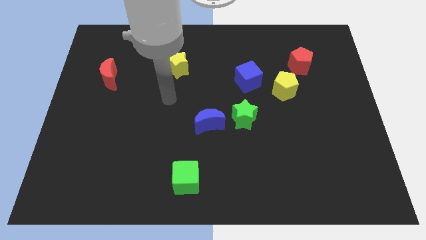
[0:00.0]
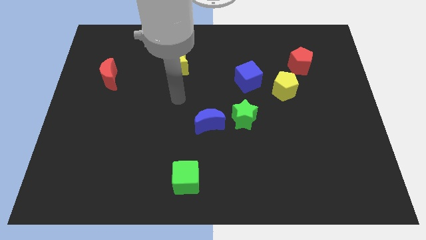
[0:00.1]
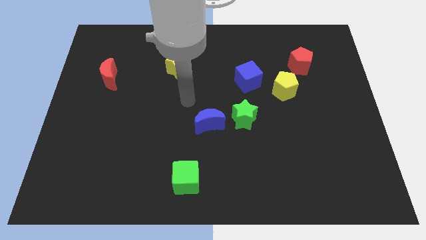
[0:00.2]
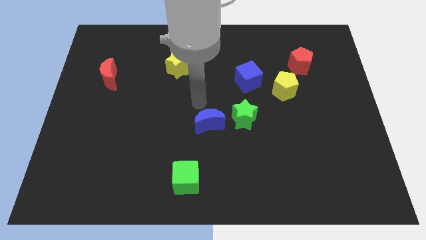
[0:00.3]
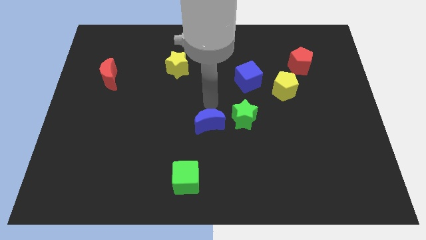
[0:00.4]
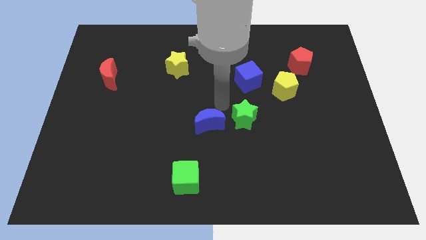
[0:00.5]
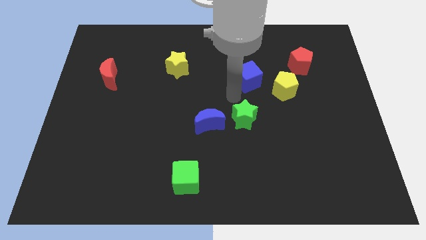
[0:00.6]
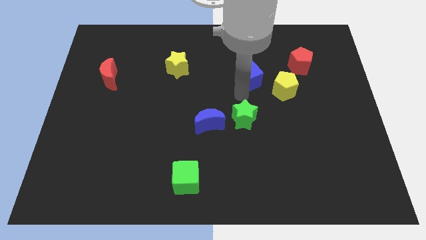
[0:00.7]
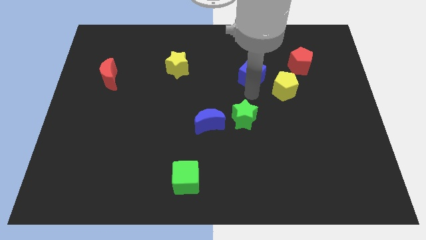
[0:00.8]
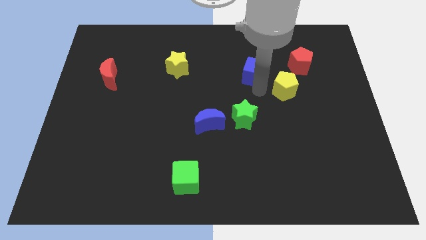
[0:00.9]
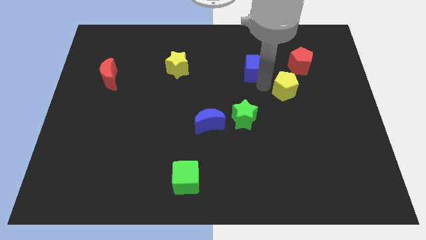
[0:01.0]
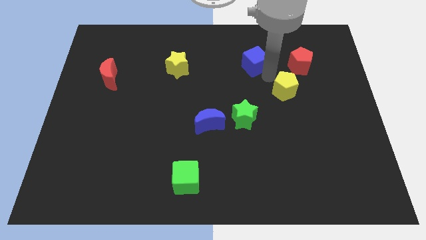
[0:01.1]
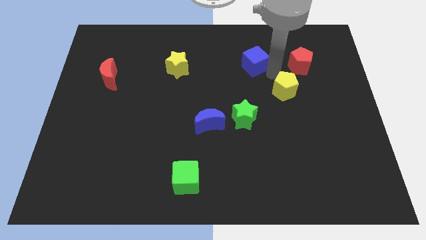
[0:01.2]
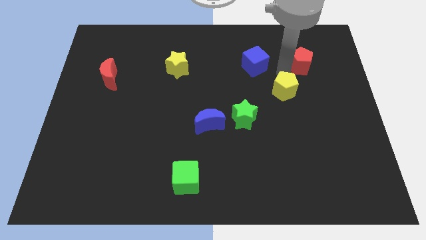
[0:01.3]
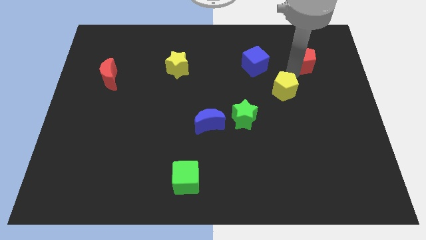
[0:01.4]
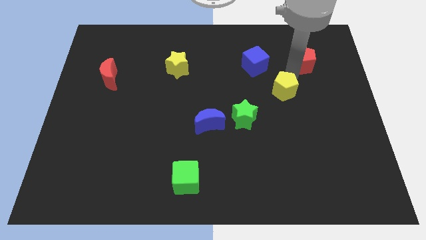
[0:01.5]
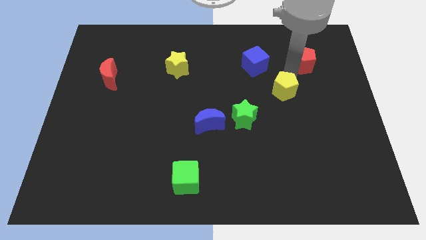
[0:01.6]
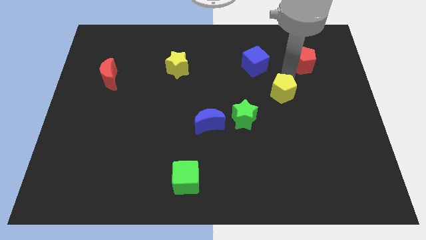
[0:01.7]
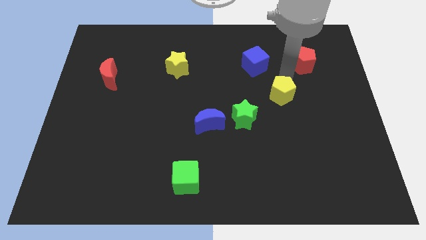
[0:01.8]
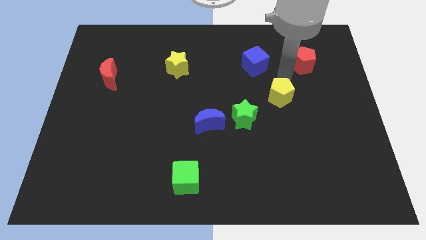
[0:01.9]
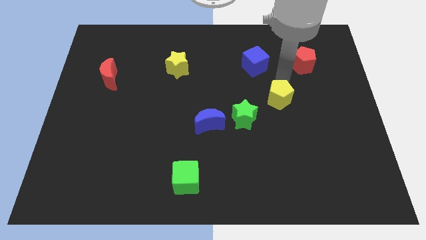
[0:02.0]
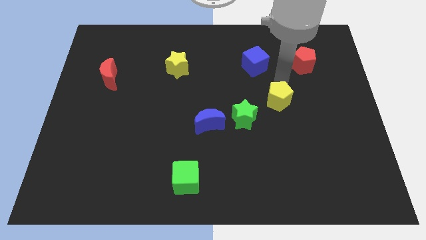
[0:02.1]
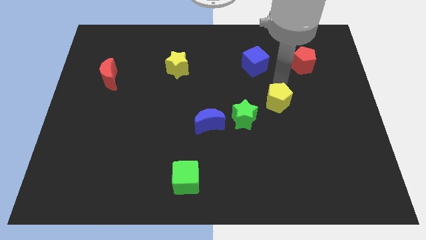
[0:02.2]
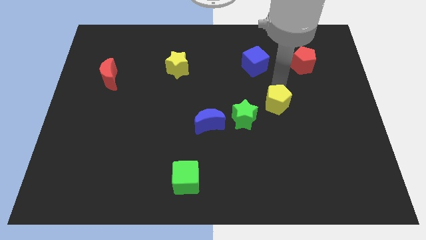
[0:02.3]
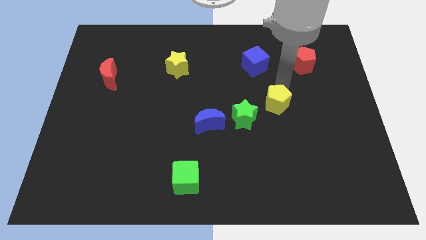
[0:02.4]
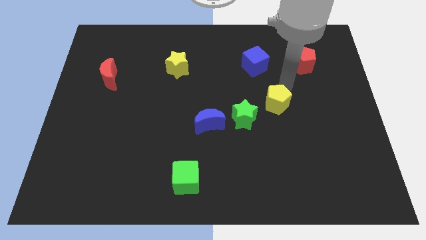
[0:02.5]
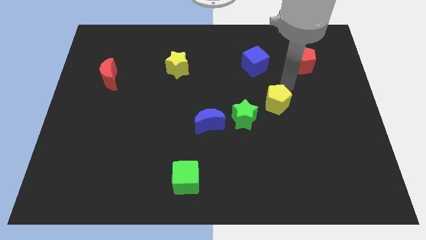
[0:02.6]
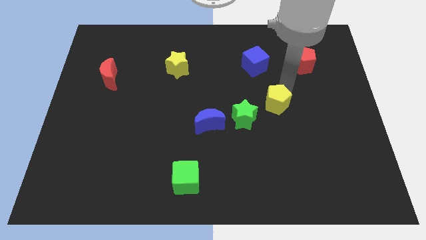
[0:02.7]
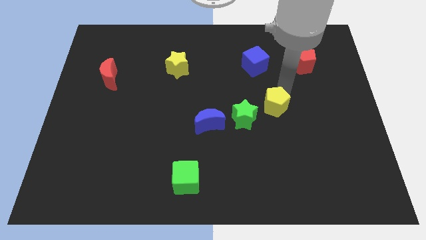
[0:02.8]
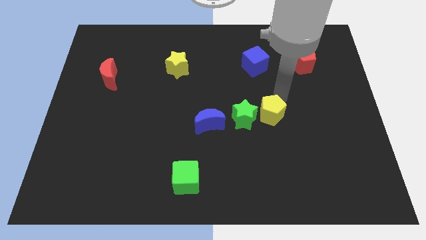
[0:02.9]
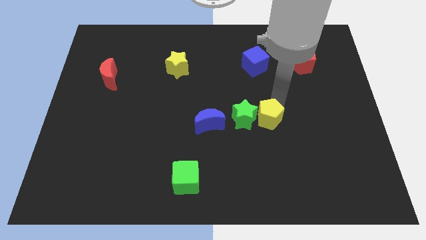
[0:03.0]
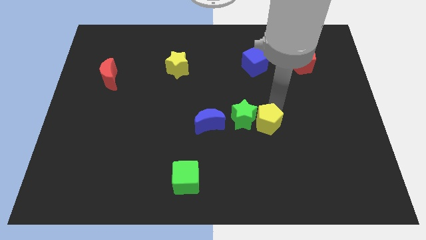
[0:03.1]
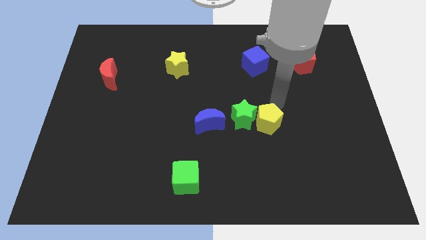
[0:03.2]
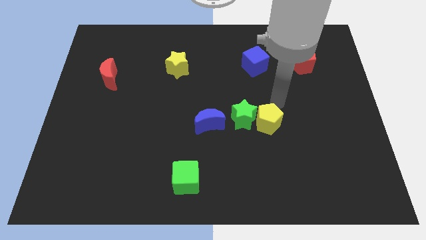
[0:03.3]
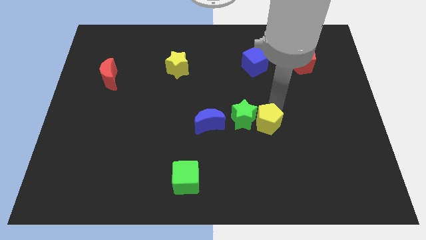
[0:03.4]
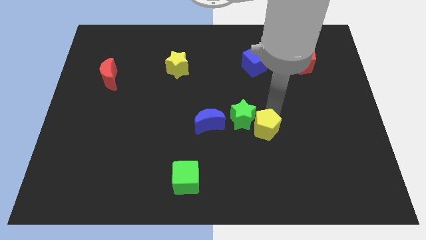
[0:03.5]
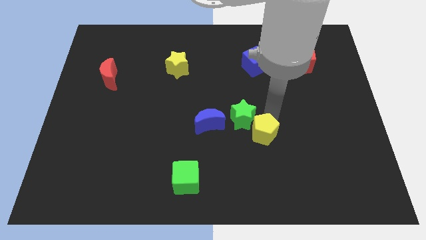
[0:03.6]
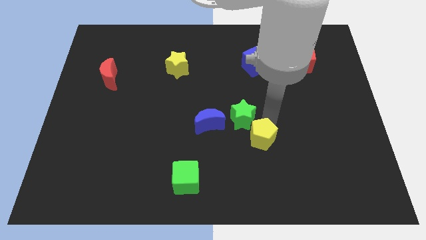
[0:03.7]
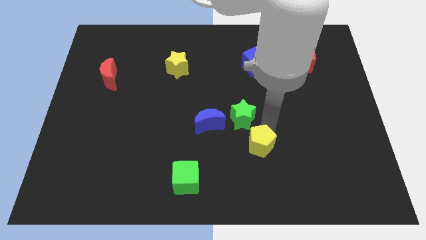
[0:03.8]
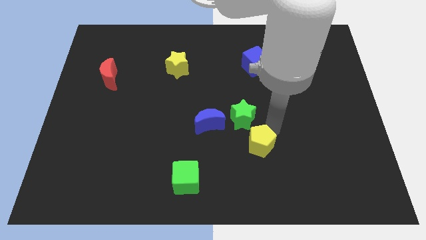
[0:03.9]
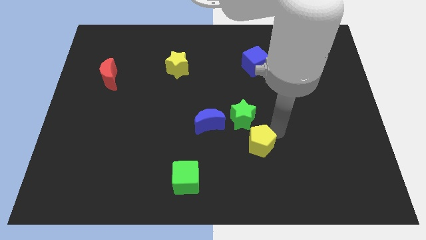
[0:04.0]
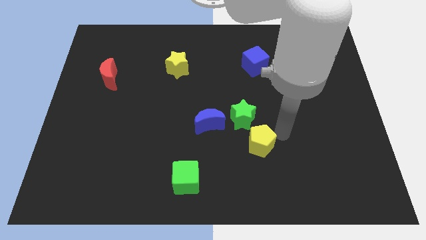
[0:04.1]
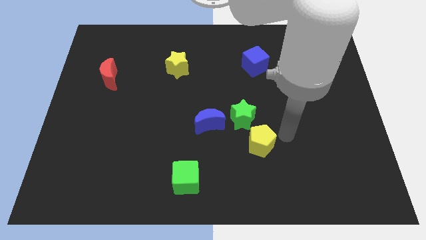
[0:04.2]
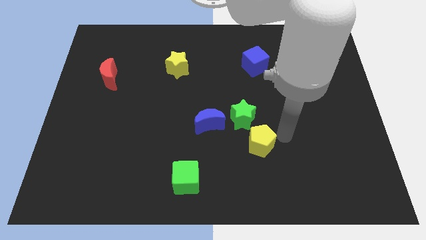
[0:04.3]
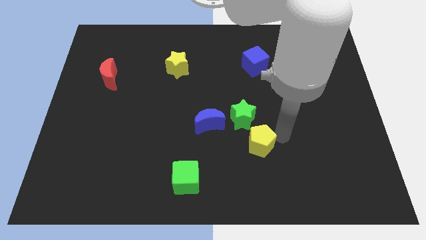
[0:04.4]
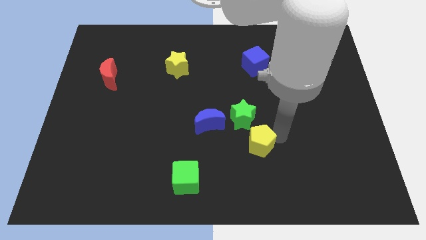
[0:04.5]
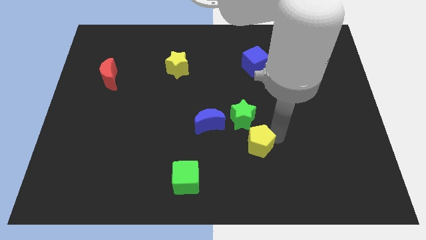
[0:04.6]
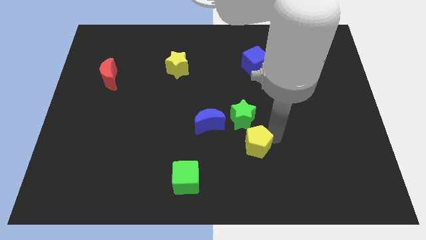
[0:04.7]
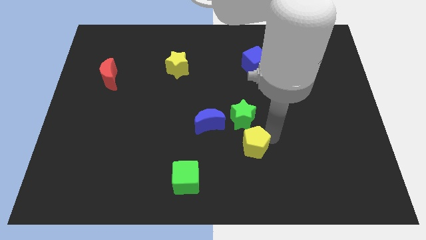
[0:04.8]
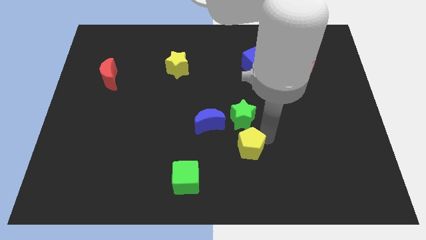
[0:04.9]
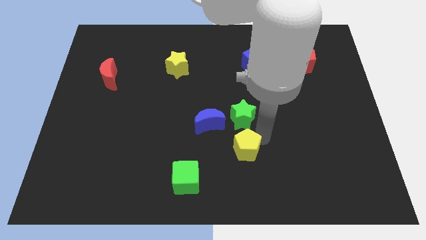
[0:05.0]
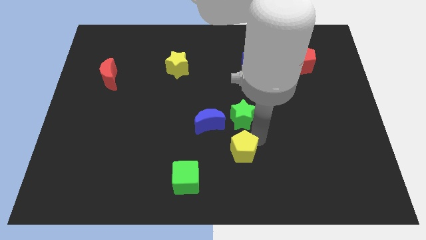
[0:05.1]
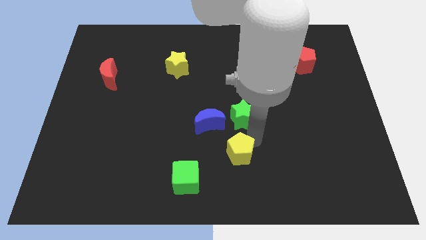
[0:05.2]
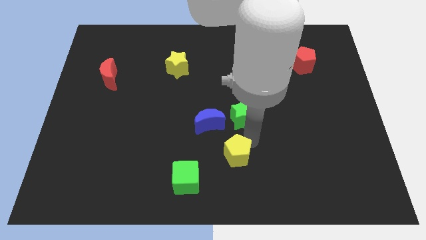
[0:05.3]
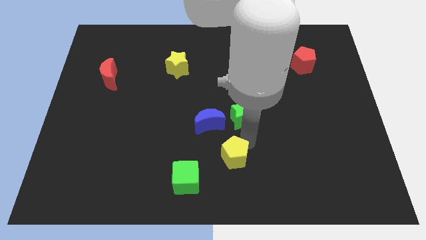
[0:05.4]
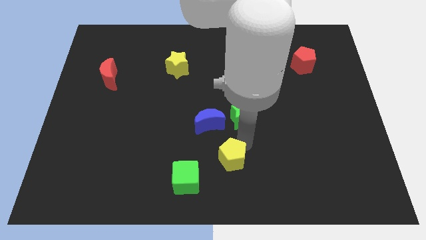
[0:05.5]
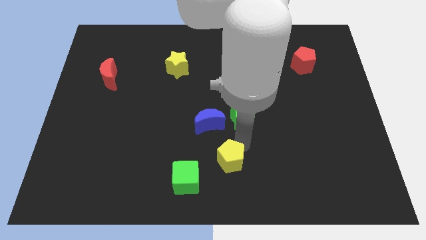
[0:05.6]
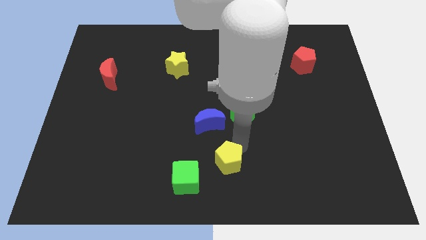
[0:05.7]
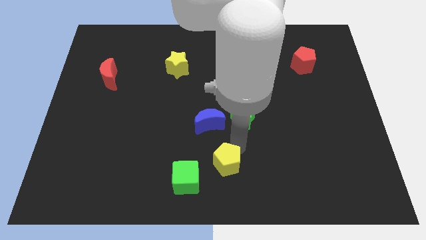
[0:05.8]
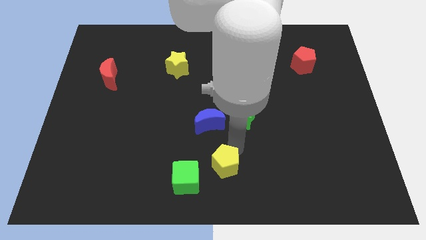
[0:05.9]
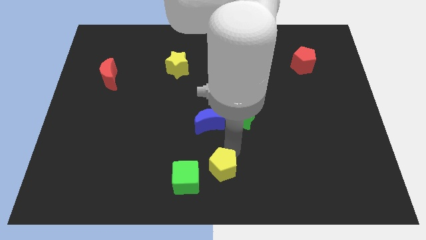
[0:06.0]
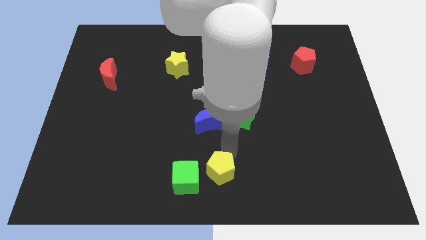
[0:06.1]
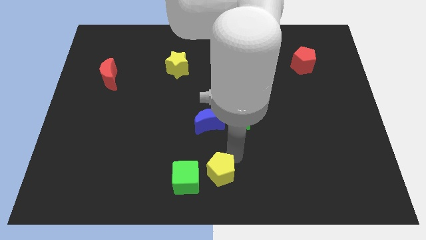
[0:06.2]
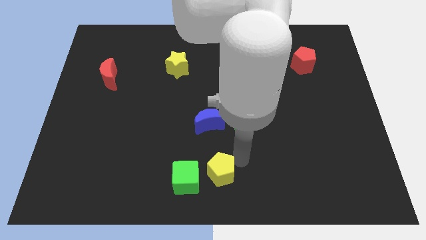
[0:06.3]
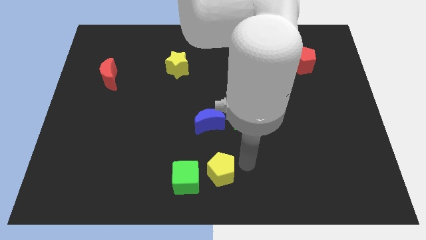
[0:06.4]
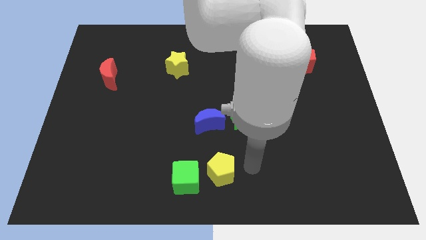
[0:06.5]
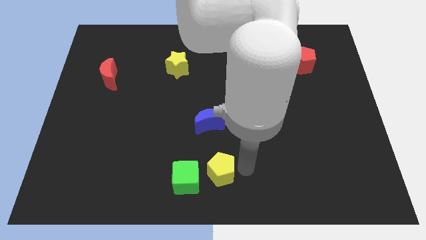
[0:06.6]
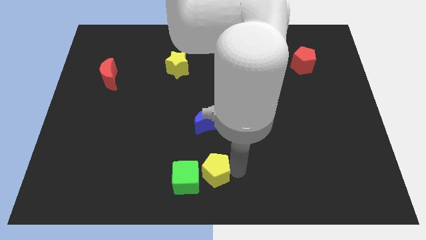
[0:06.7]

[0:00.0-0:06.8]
move the yellow pentagon towards the green cube

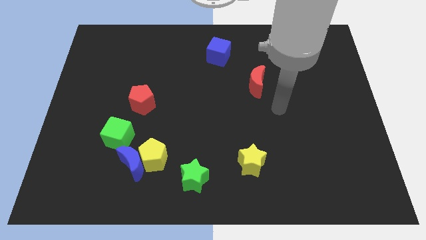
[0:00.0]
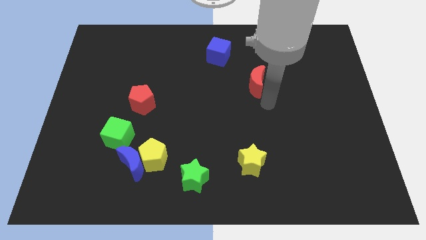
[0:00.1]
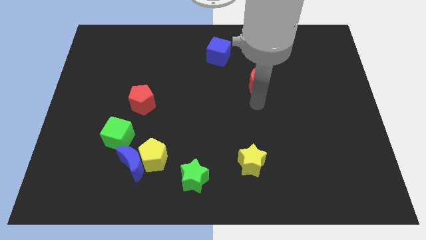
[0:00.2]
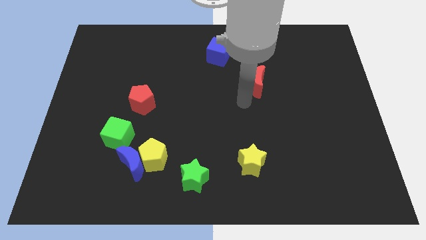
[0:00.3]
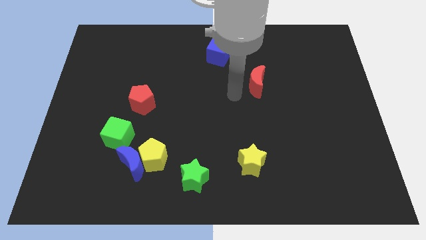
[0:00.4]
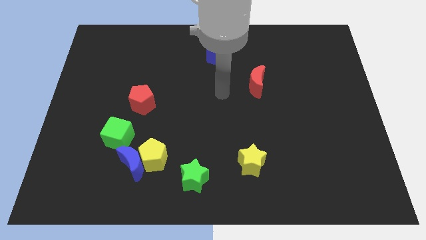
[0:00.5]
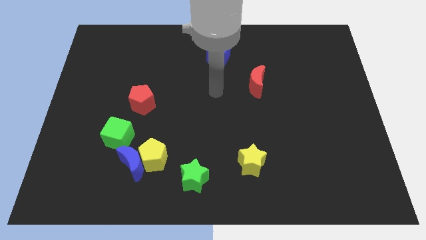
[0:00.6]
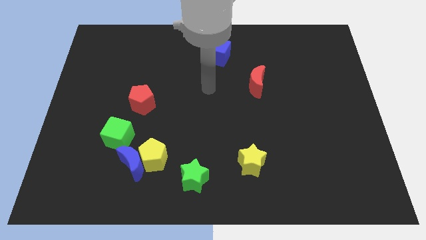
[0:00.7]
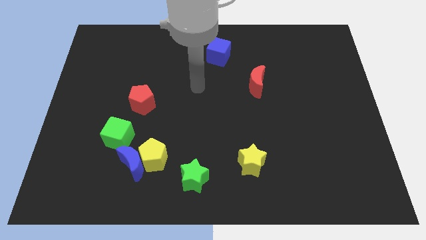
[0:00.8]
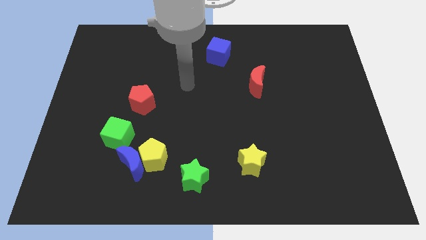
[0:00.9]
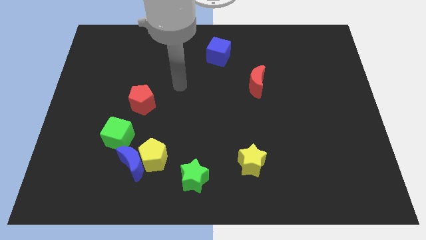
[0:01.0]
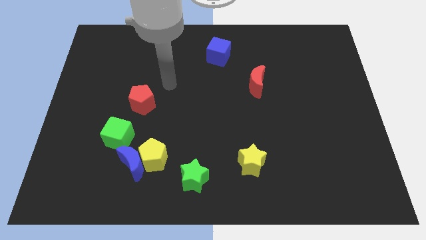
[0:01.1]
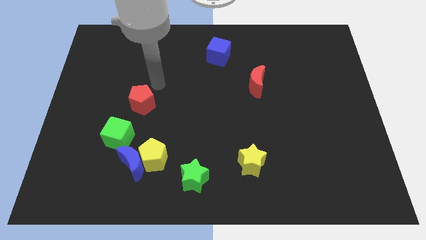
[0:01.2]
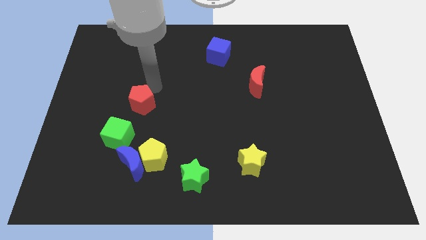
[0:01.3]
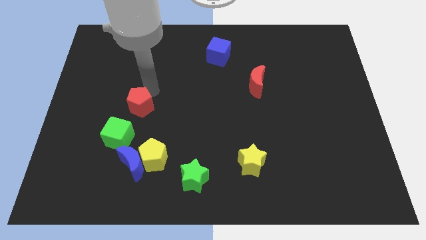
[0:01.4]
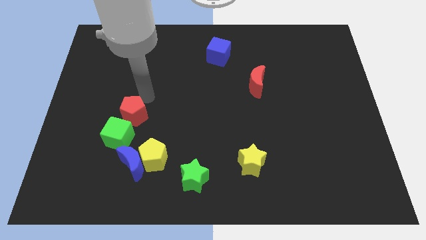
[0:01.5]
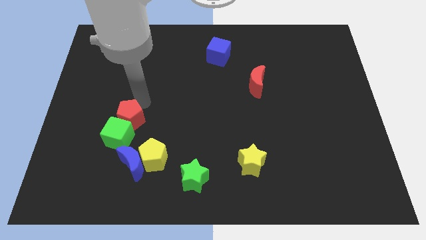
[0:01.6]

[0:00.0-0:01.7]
put the red pentagon close to the green cube
